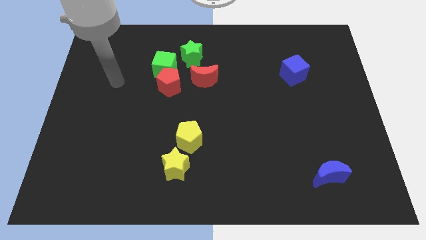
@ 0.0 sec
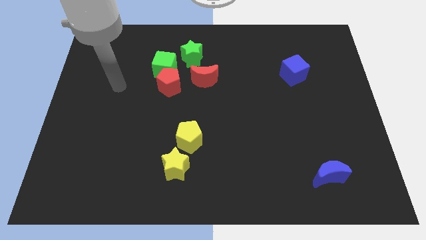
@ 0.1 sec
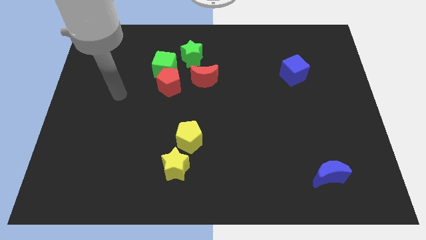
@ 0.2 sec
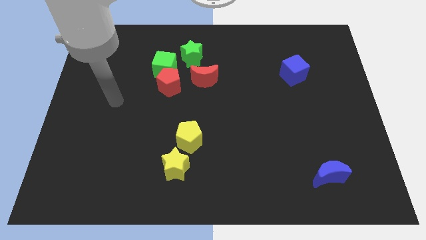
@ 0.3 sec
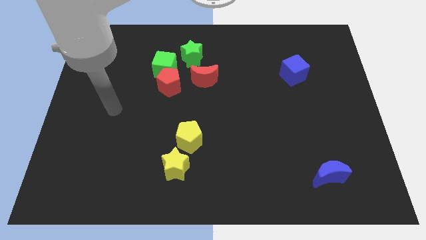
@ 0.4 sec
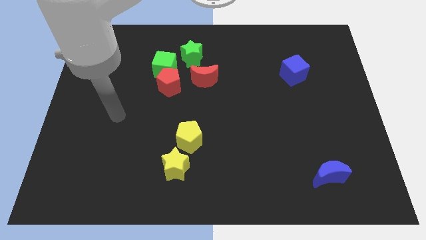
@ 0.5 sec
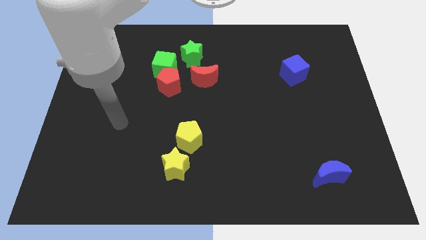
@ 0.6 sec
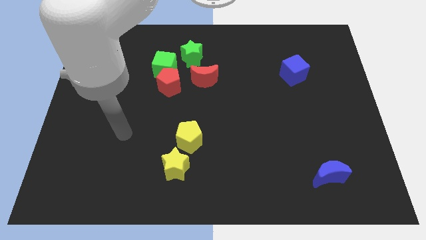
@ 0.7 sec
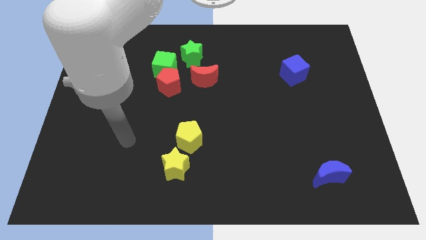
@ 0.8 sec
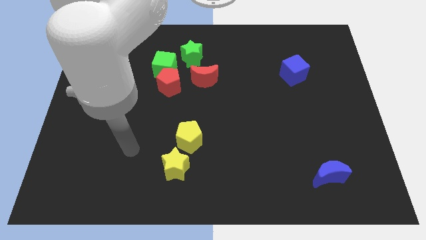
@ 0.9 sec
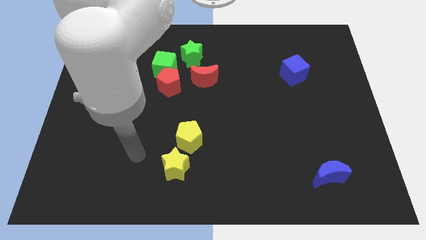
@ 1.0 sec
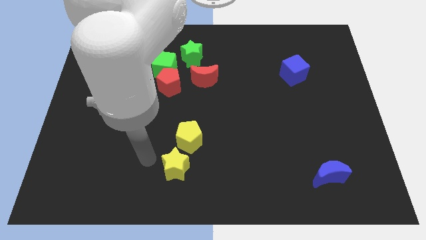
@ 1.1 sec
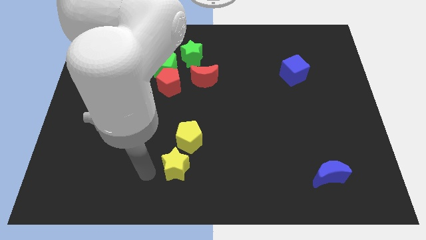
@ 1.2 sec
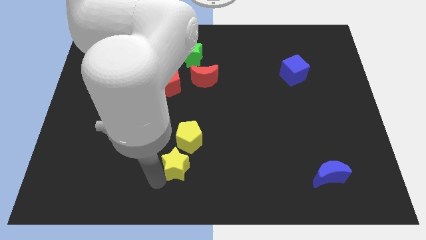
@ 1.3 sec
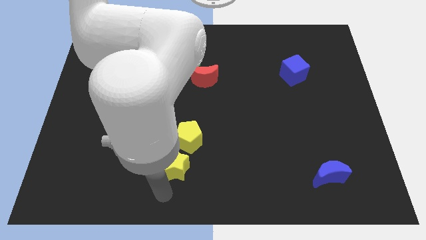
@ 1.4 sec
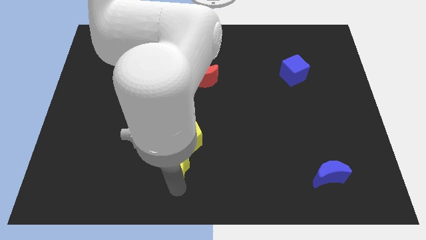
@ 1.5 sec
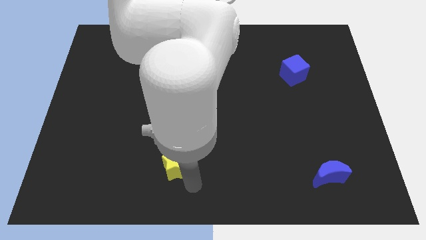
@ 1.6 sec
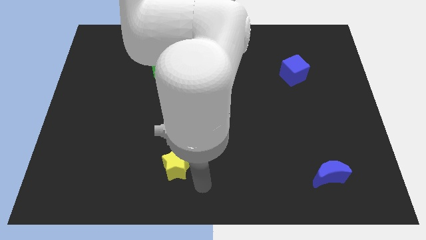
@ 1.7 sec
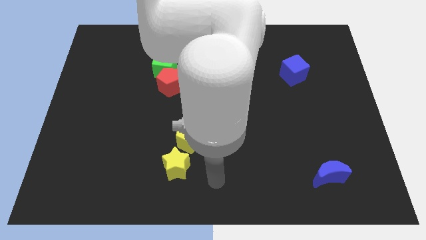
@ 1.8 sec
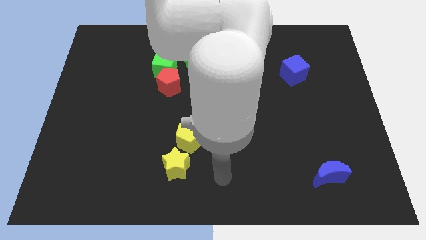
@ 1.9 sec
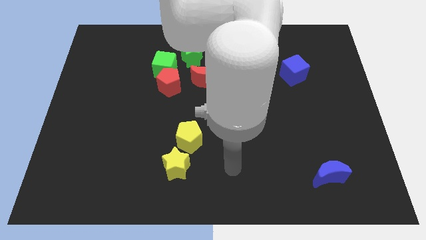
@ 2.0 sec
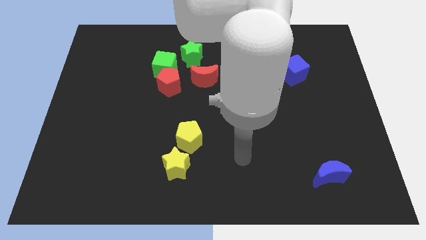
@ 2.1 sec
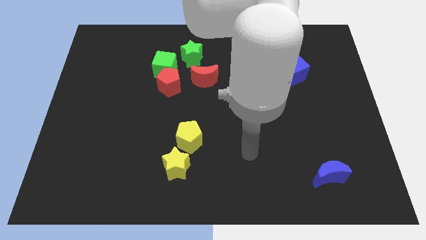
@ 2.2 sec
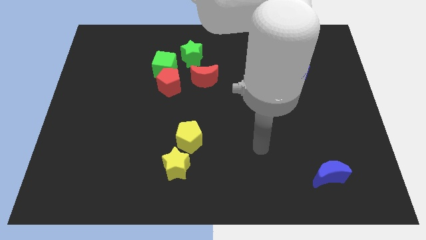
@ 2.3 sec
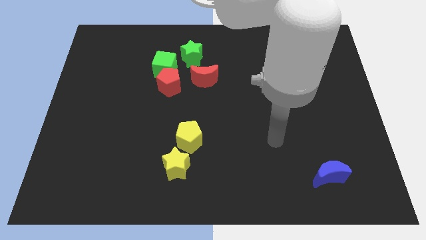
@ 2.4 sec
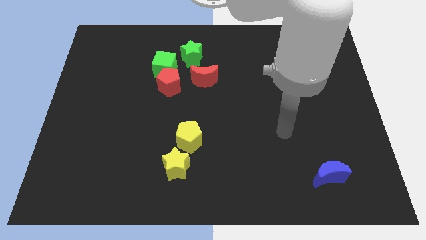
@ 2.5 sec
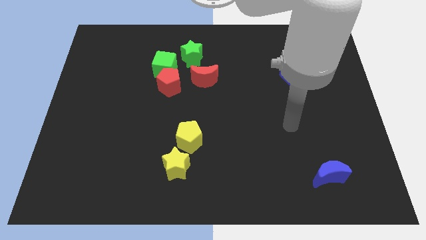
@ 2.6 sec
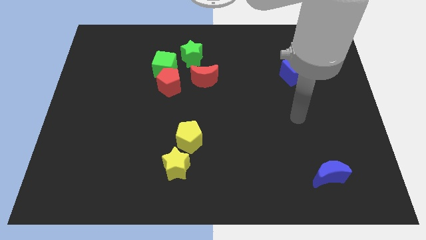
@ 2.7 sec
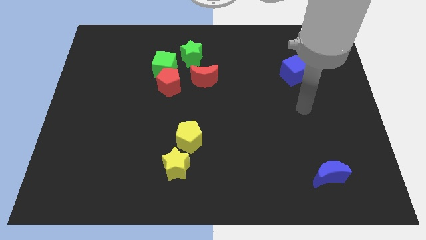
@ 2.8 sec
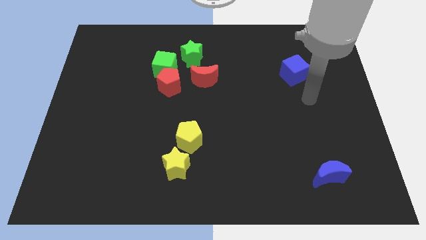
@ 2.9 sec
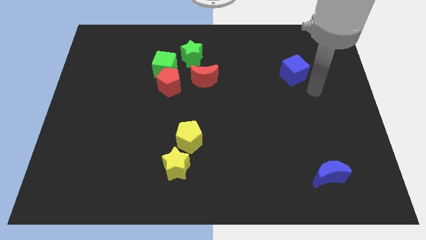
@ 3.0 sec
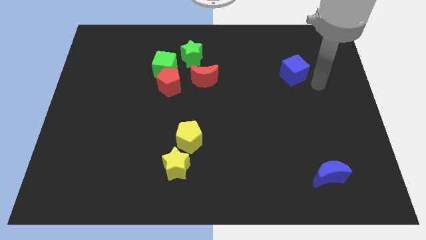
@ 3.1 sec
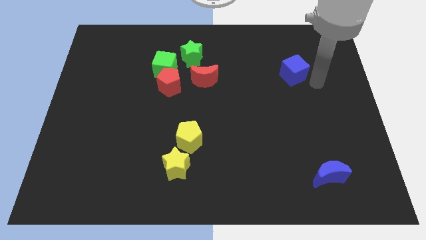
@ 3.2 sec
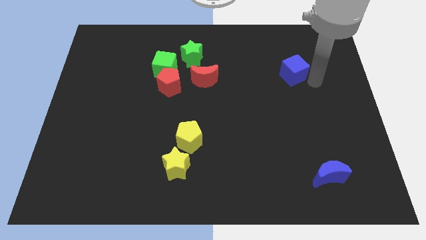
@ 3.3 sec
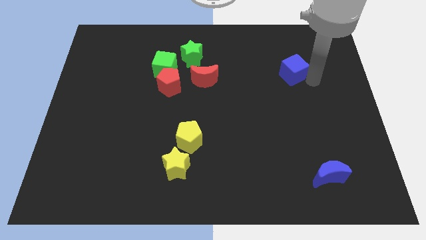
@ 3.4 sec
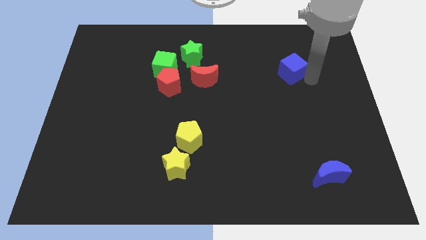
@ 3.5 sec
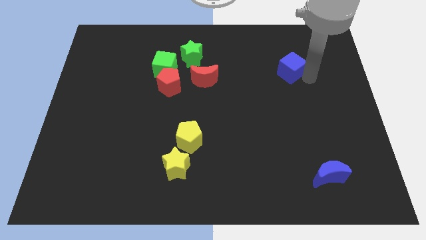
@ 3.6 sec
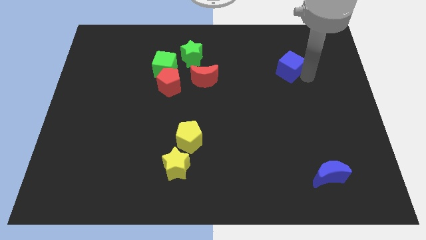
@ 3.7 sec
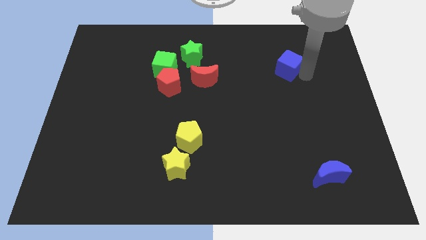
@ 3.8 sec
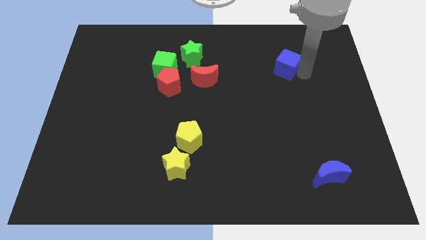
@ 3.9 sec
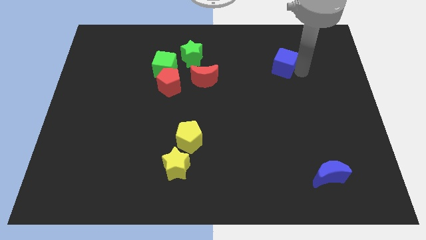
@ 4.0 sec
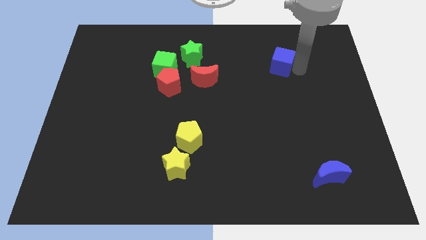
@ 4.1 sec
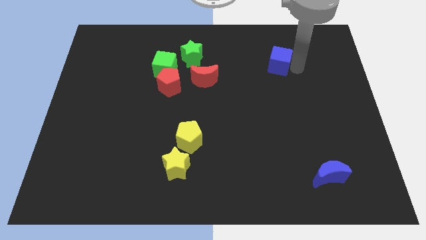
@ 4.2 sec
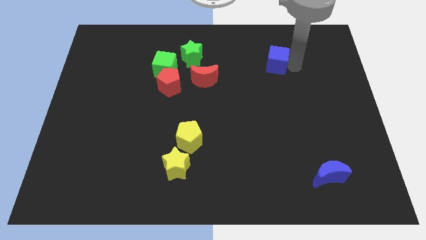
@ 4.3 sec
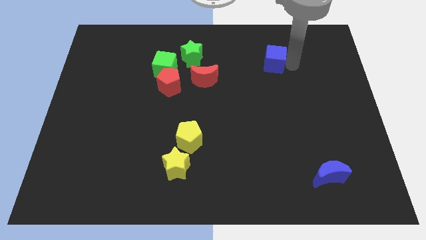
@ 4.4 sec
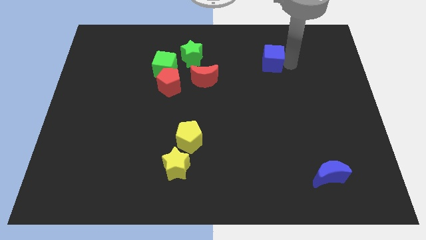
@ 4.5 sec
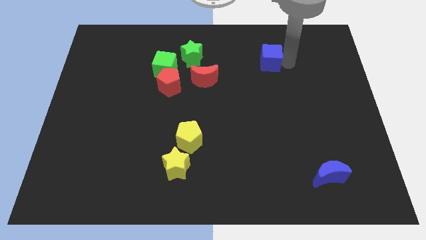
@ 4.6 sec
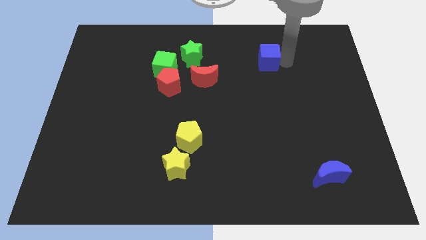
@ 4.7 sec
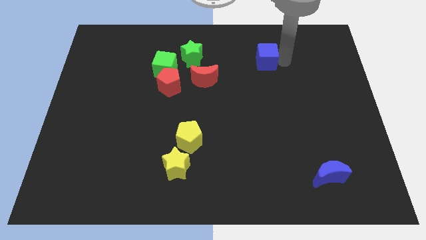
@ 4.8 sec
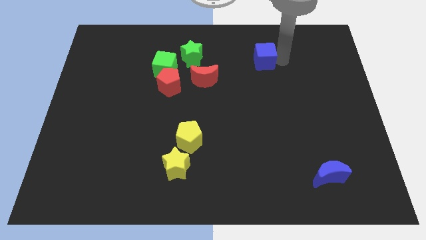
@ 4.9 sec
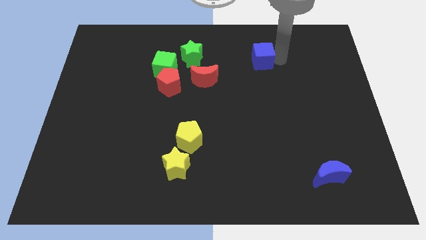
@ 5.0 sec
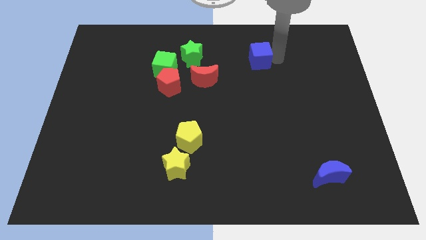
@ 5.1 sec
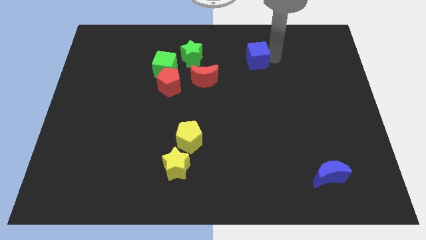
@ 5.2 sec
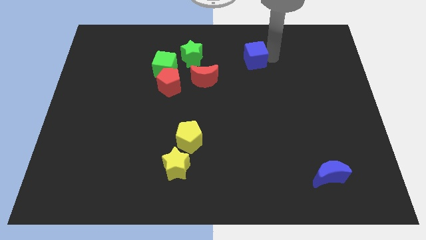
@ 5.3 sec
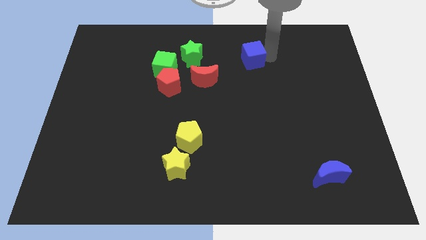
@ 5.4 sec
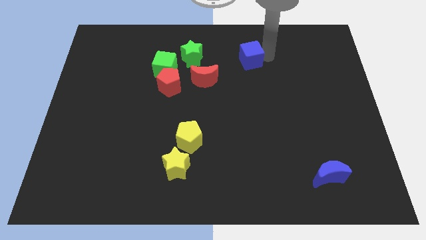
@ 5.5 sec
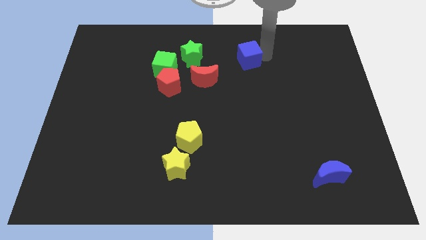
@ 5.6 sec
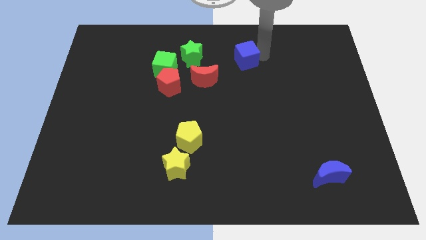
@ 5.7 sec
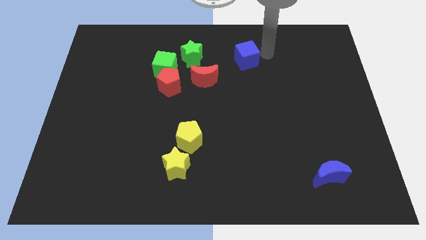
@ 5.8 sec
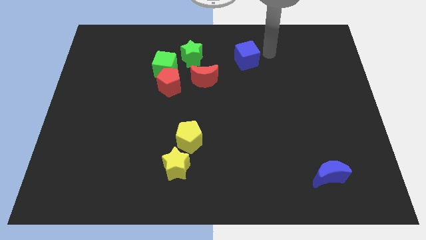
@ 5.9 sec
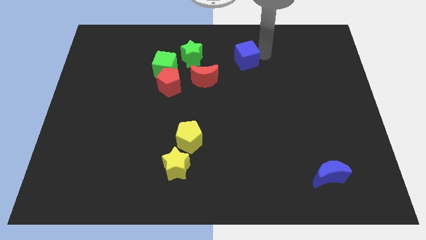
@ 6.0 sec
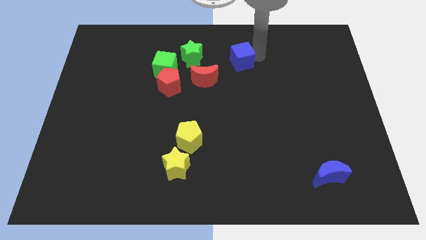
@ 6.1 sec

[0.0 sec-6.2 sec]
move the blue cube diagonally up and to the right of the red moon

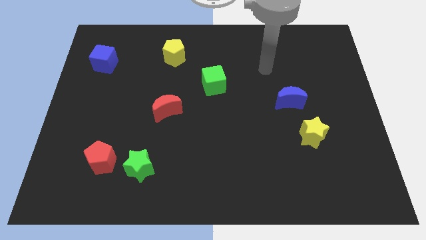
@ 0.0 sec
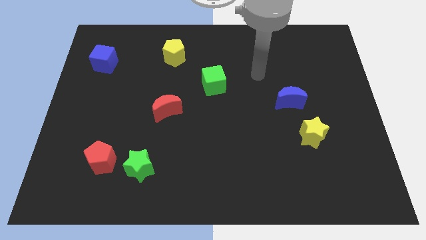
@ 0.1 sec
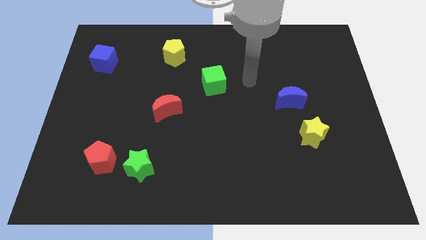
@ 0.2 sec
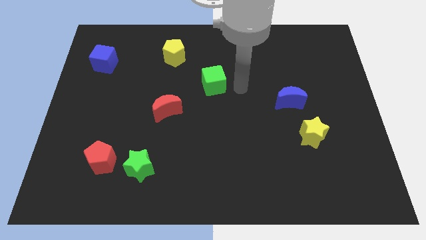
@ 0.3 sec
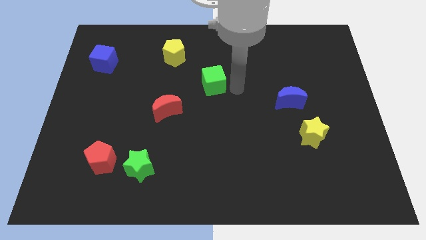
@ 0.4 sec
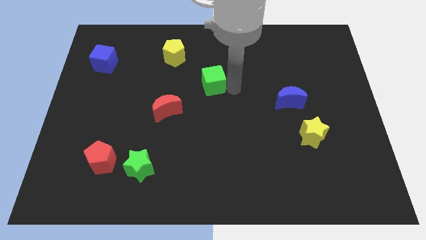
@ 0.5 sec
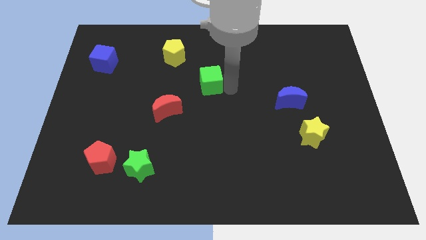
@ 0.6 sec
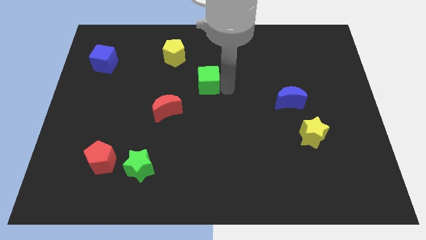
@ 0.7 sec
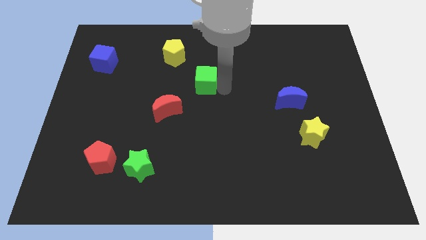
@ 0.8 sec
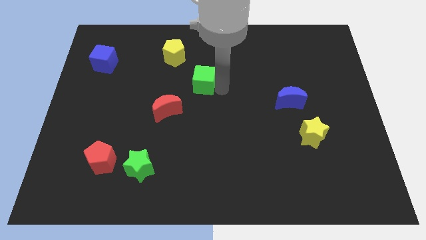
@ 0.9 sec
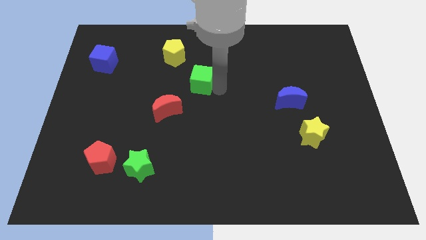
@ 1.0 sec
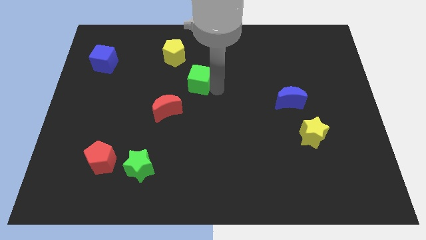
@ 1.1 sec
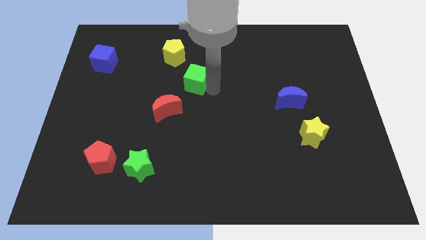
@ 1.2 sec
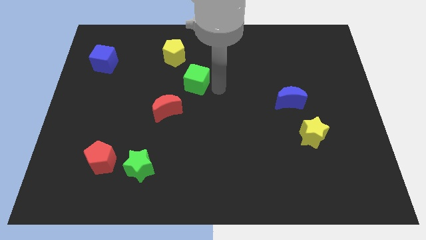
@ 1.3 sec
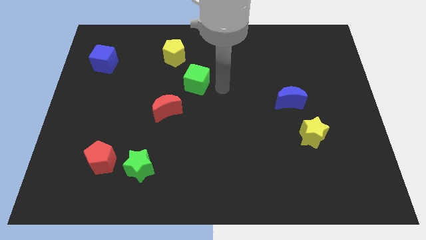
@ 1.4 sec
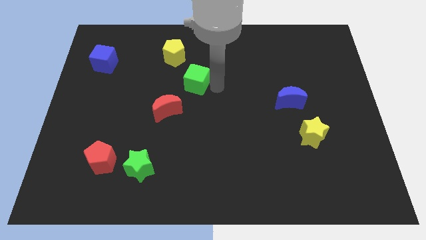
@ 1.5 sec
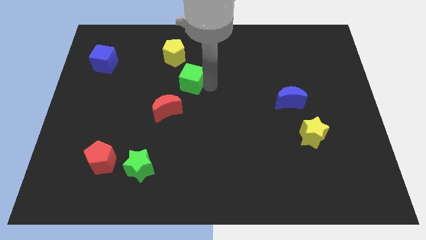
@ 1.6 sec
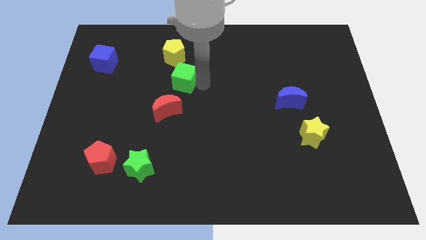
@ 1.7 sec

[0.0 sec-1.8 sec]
push the green cube to the top side of the red moon
